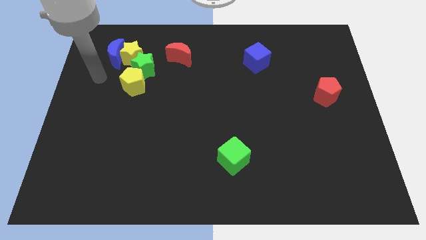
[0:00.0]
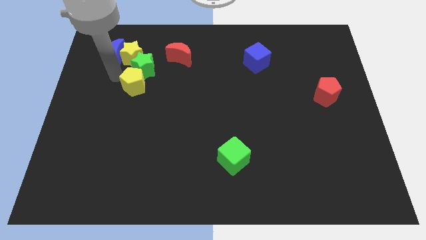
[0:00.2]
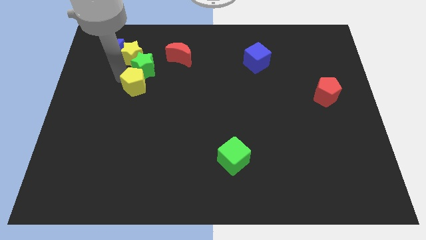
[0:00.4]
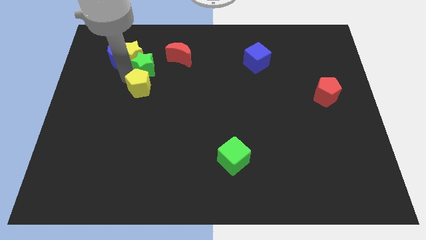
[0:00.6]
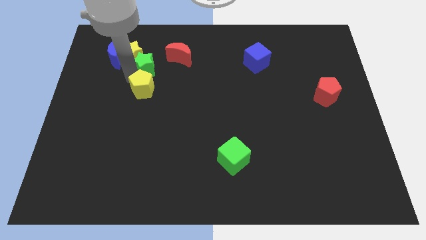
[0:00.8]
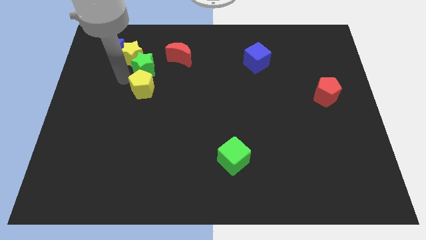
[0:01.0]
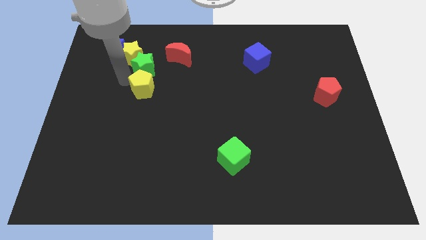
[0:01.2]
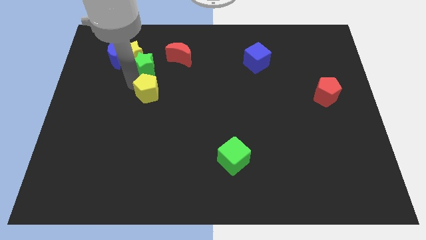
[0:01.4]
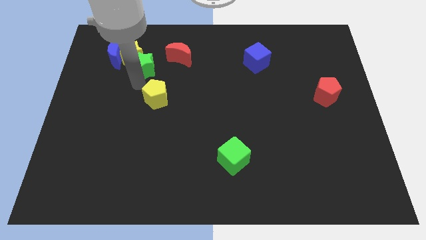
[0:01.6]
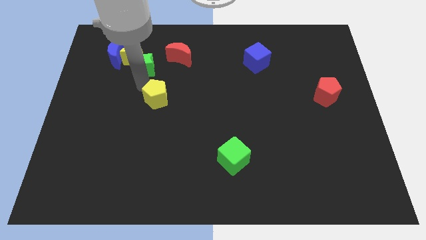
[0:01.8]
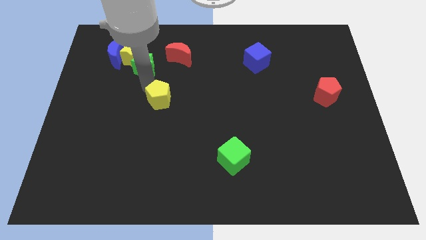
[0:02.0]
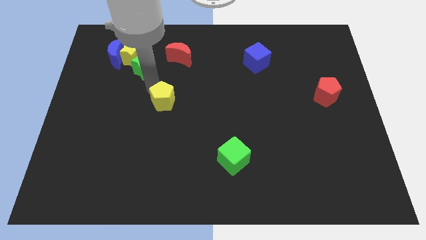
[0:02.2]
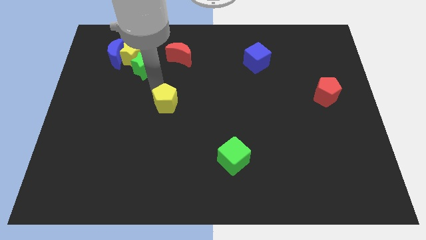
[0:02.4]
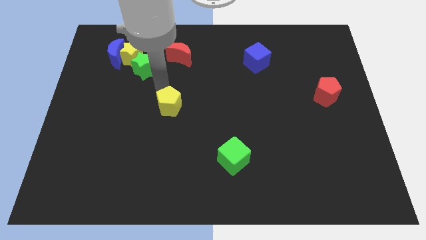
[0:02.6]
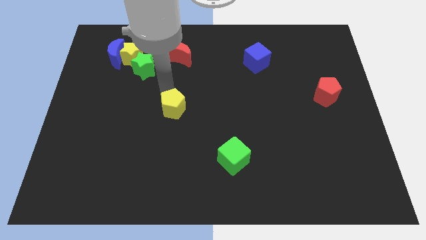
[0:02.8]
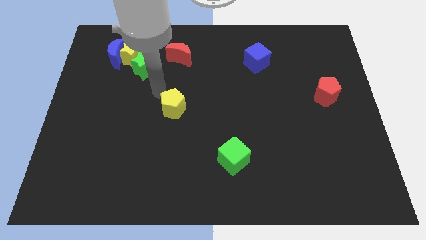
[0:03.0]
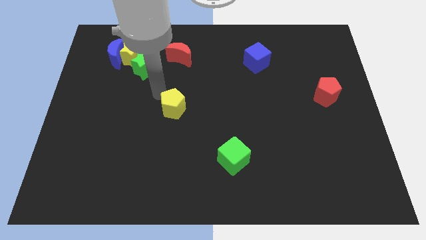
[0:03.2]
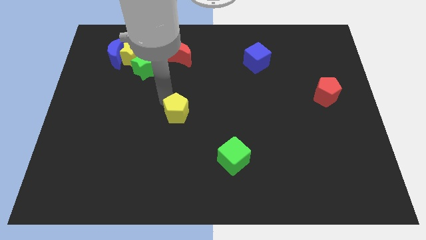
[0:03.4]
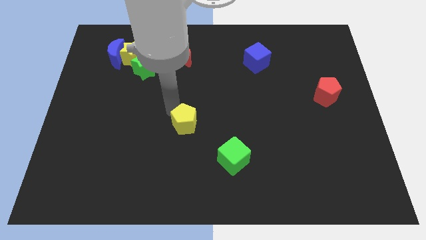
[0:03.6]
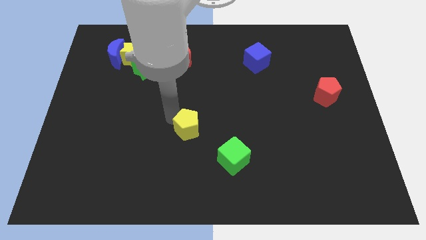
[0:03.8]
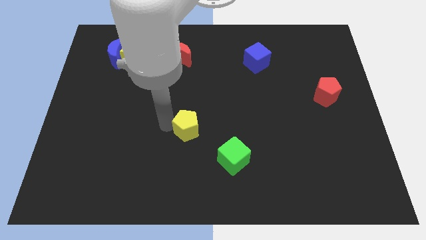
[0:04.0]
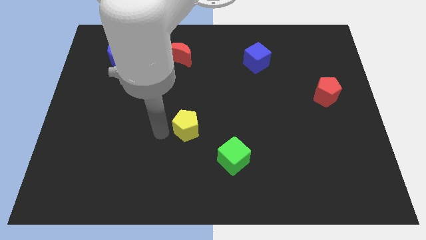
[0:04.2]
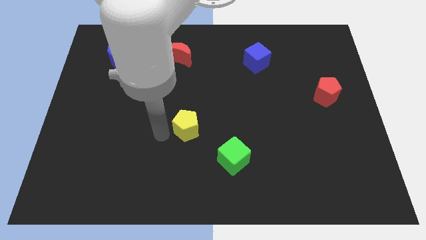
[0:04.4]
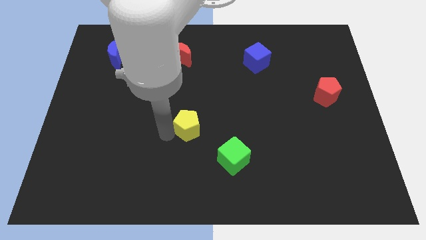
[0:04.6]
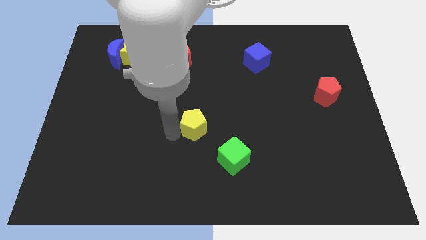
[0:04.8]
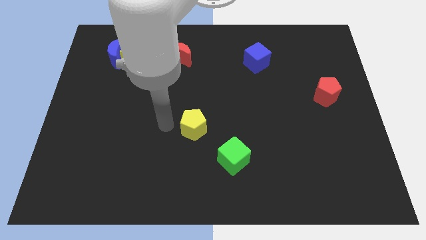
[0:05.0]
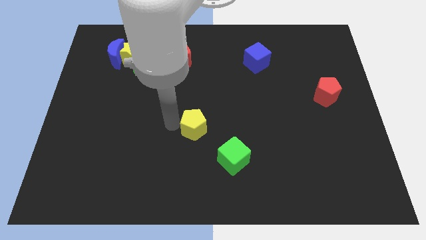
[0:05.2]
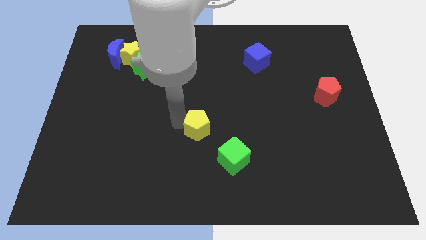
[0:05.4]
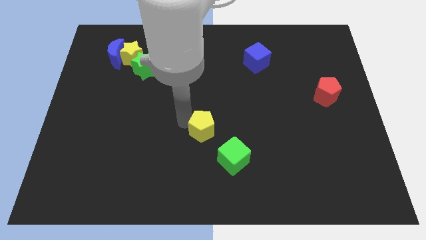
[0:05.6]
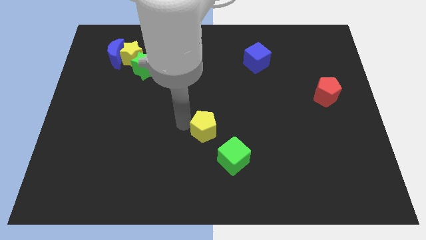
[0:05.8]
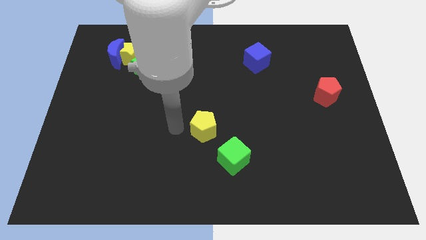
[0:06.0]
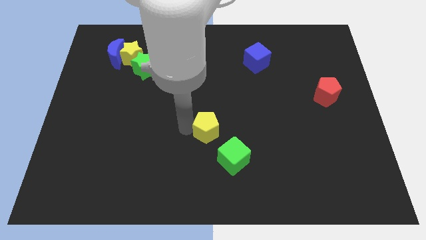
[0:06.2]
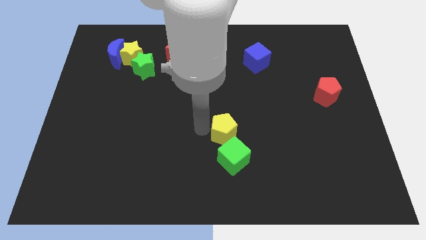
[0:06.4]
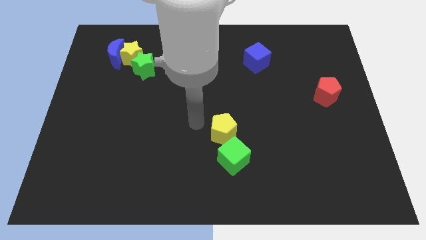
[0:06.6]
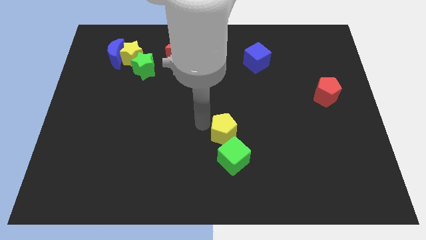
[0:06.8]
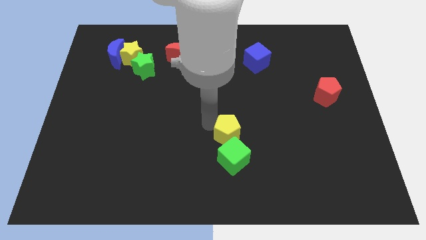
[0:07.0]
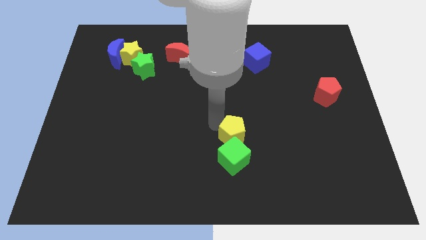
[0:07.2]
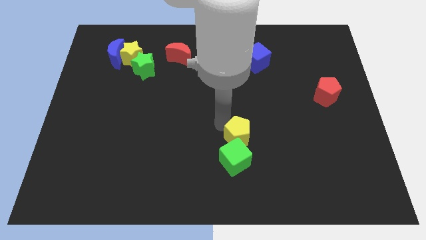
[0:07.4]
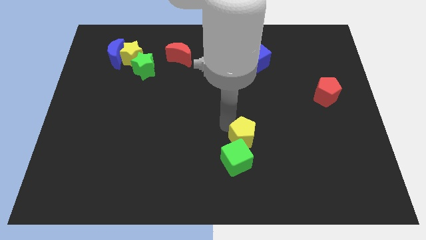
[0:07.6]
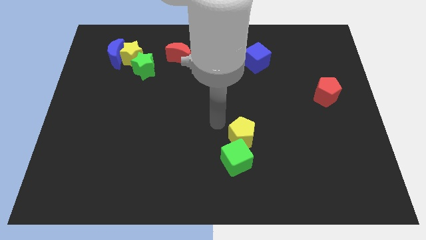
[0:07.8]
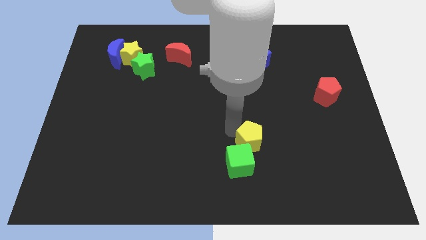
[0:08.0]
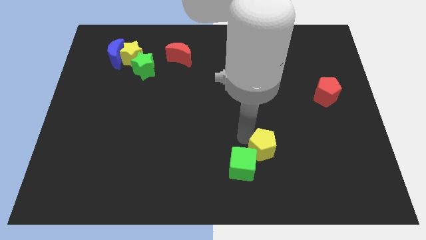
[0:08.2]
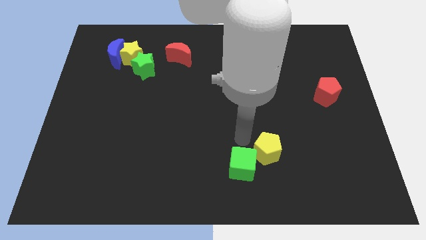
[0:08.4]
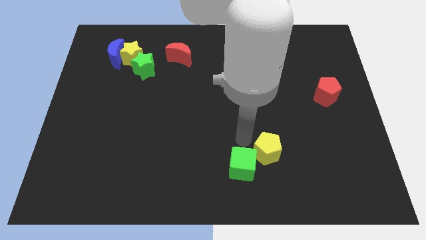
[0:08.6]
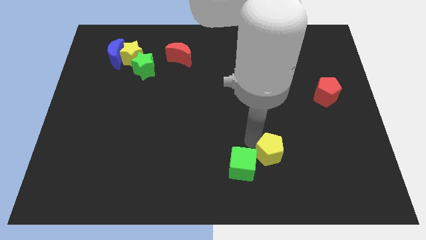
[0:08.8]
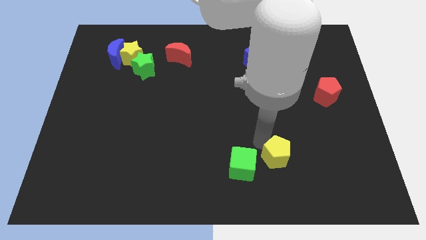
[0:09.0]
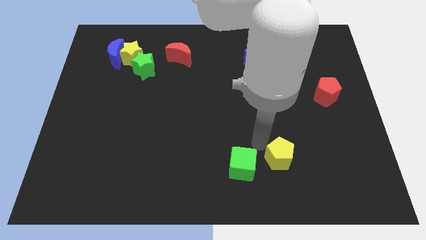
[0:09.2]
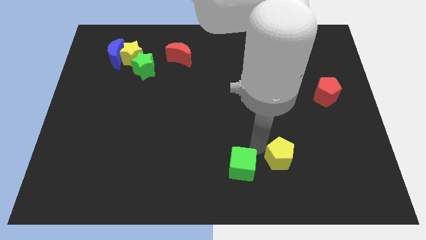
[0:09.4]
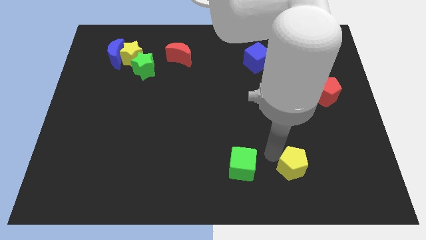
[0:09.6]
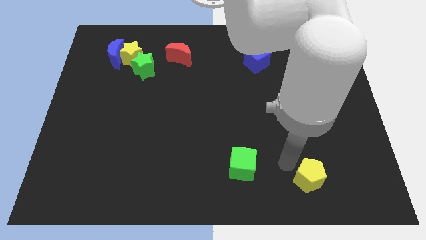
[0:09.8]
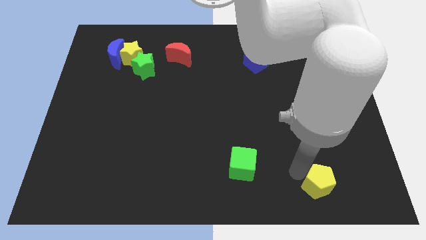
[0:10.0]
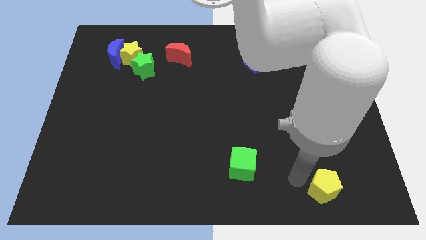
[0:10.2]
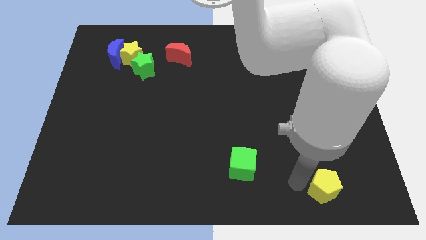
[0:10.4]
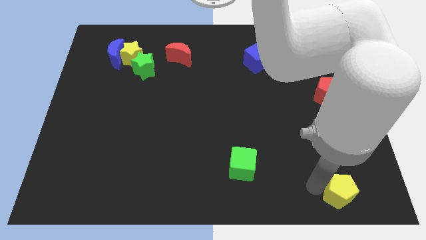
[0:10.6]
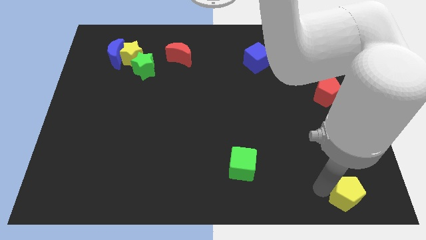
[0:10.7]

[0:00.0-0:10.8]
slide the yellow pentagon to the lower right corner

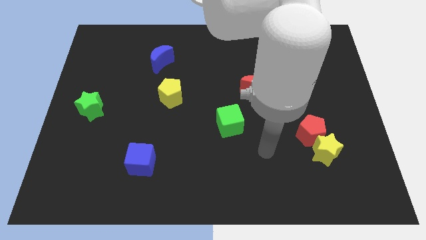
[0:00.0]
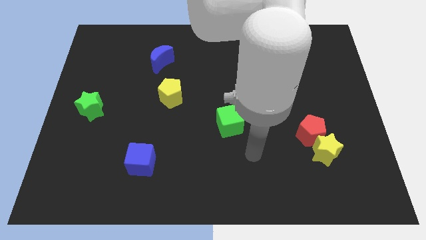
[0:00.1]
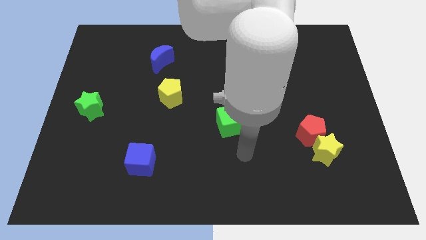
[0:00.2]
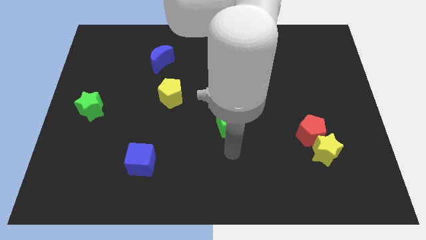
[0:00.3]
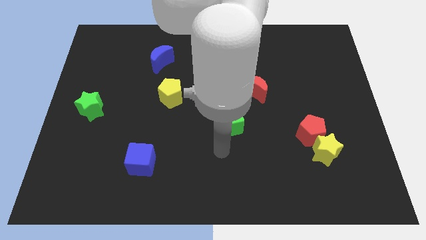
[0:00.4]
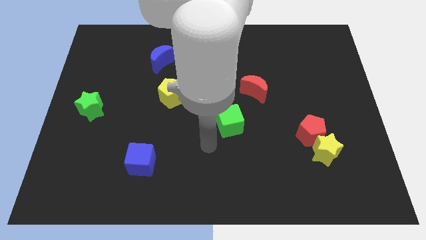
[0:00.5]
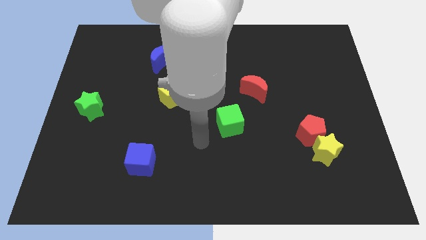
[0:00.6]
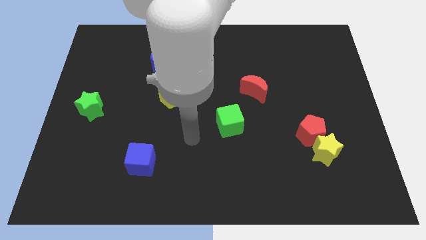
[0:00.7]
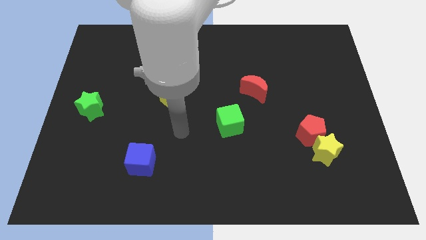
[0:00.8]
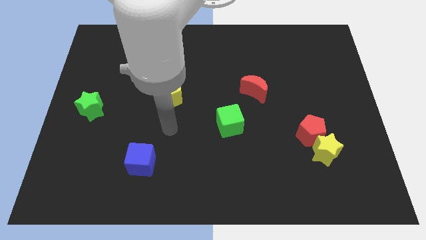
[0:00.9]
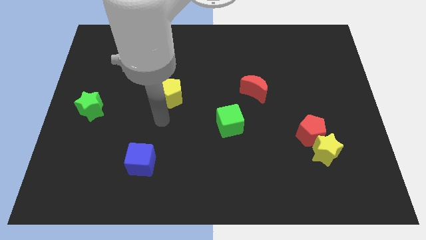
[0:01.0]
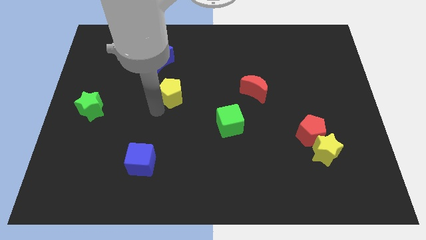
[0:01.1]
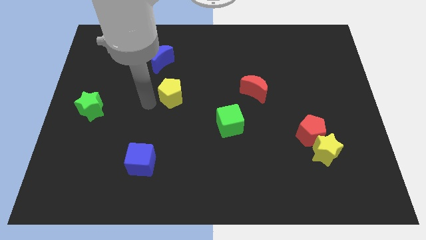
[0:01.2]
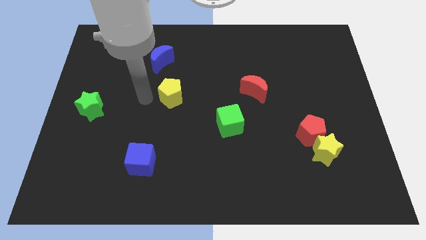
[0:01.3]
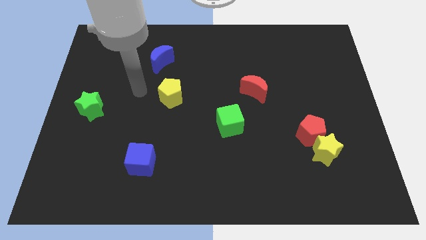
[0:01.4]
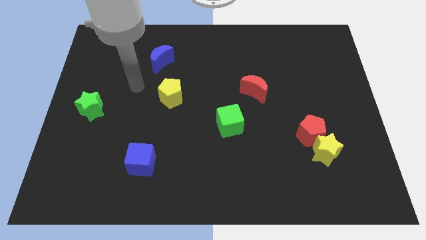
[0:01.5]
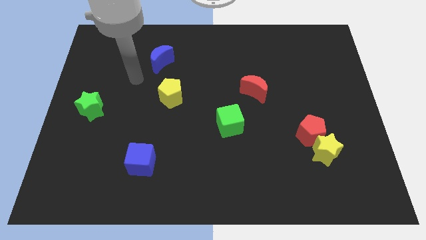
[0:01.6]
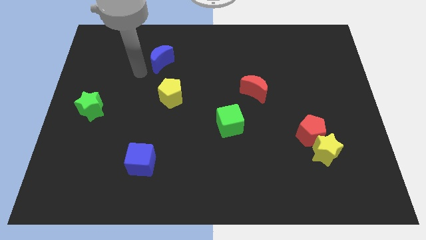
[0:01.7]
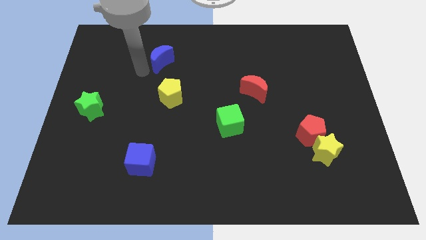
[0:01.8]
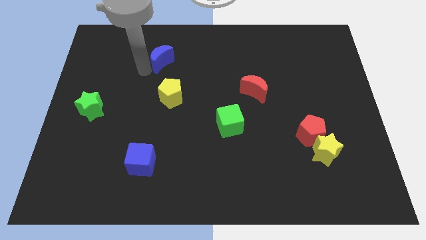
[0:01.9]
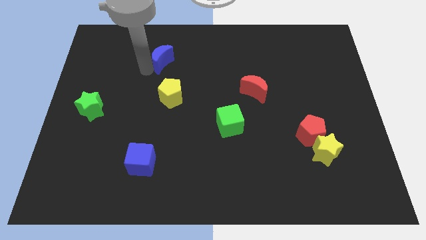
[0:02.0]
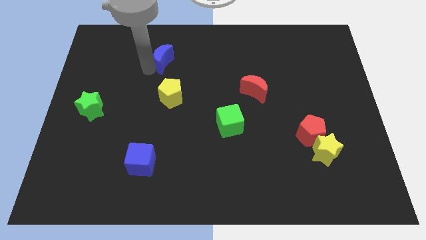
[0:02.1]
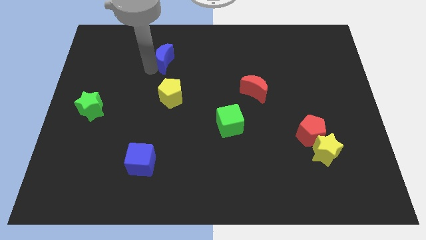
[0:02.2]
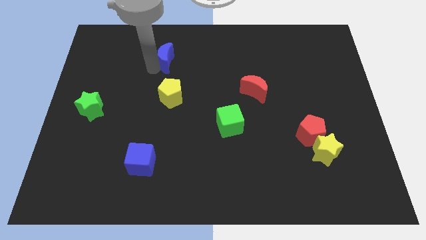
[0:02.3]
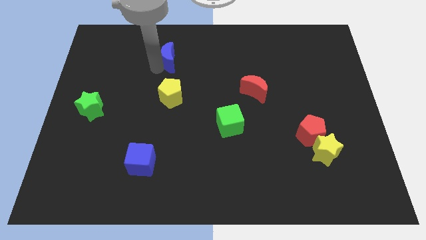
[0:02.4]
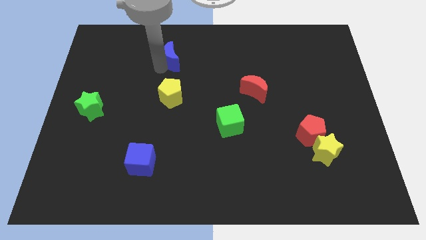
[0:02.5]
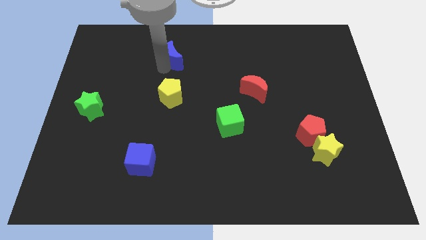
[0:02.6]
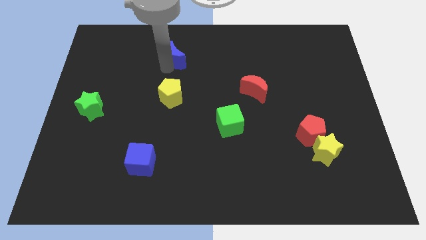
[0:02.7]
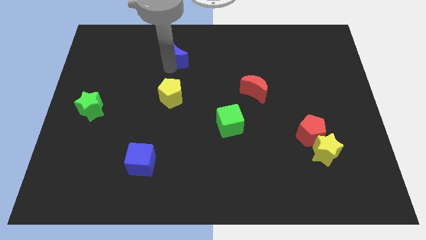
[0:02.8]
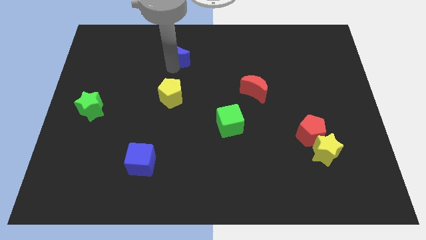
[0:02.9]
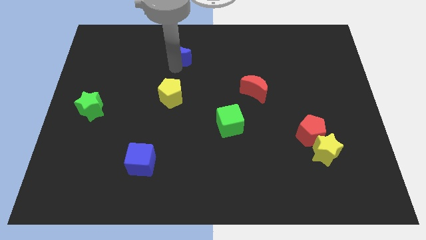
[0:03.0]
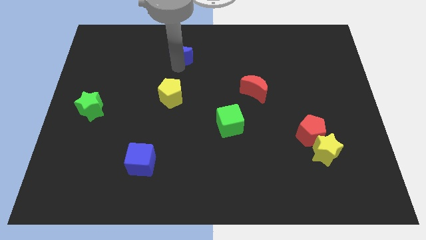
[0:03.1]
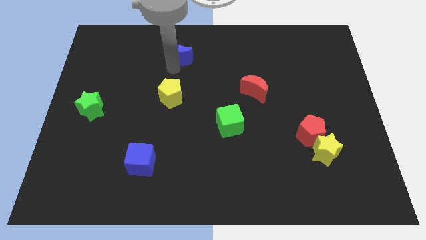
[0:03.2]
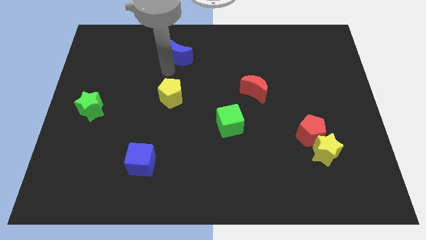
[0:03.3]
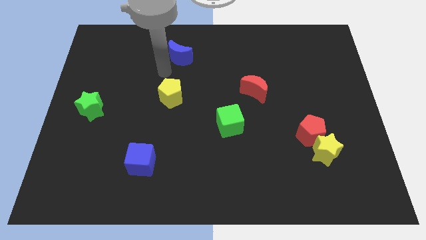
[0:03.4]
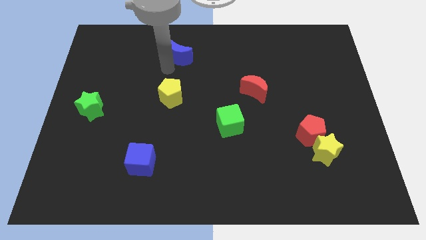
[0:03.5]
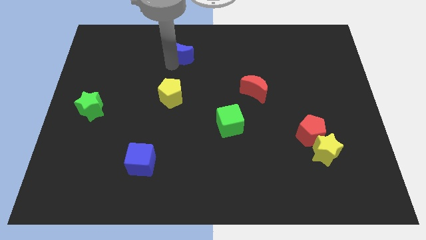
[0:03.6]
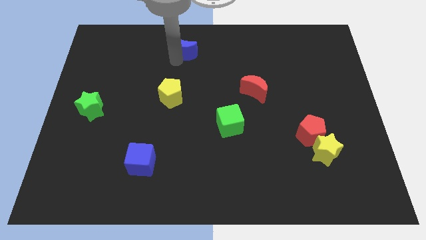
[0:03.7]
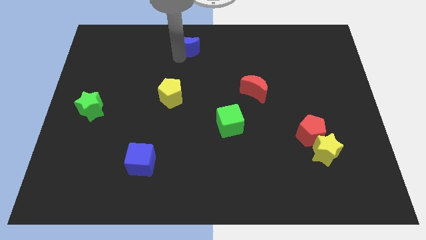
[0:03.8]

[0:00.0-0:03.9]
slide the blue moon to the top
